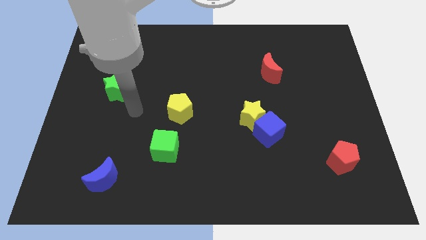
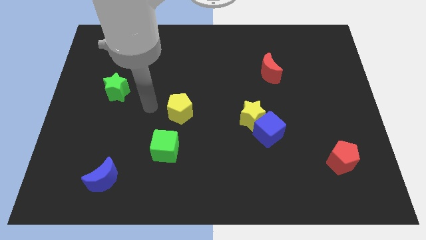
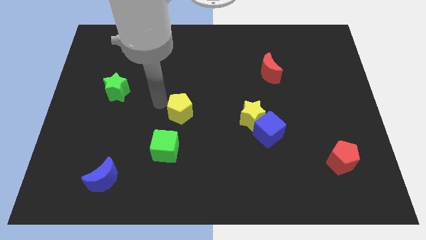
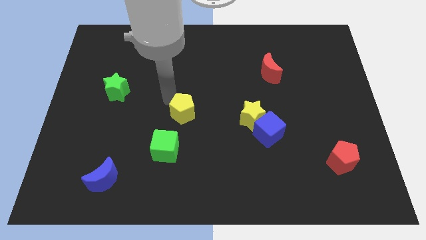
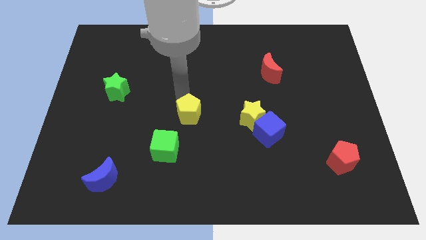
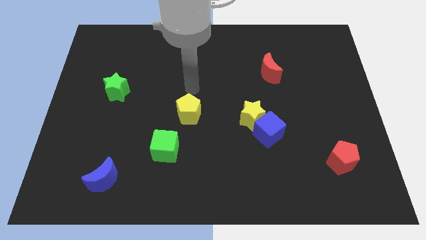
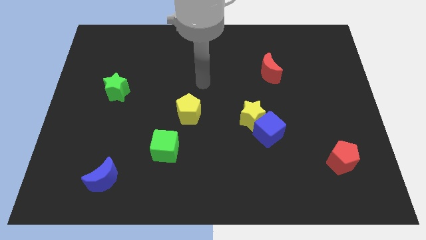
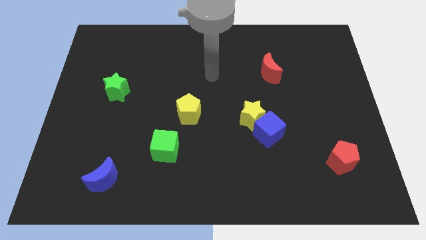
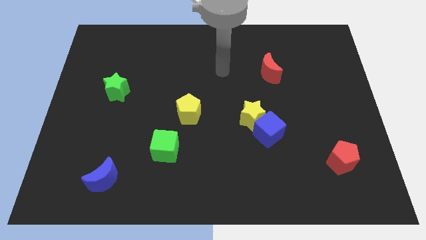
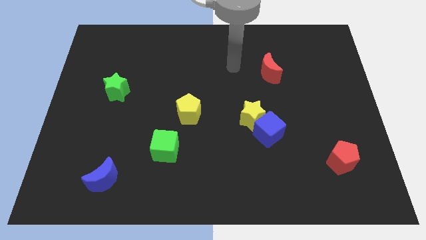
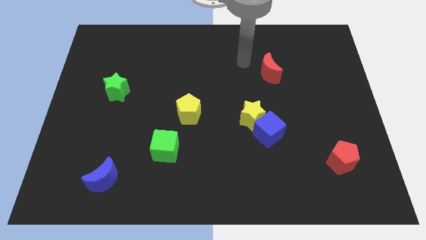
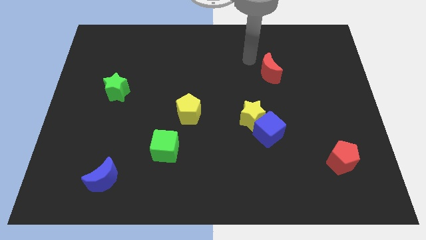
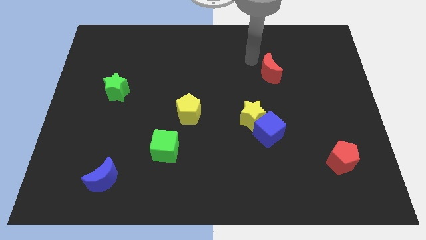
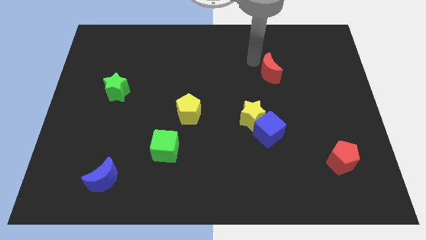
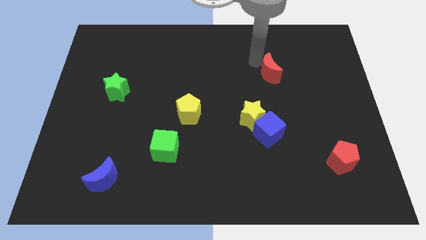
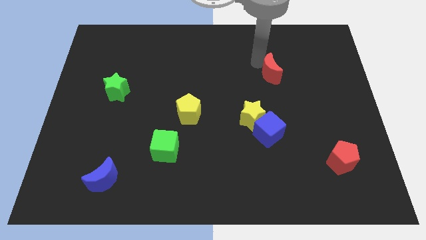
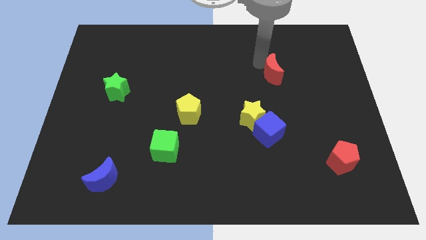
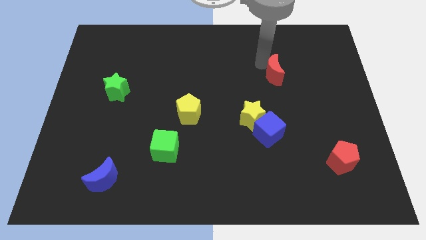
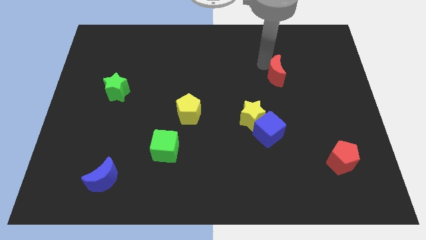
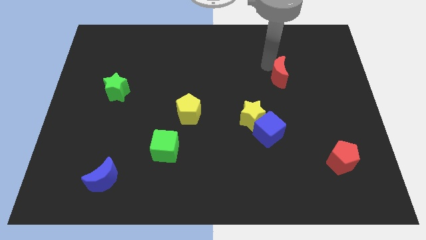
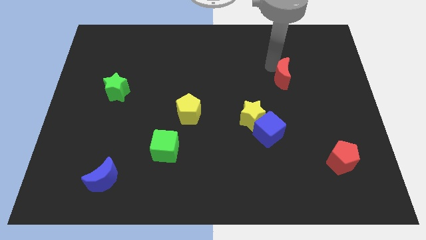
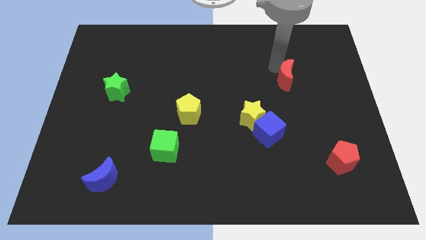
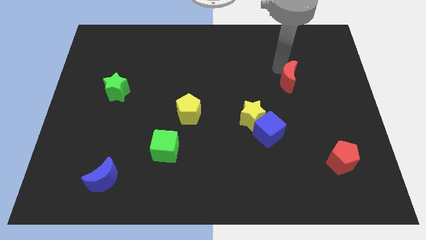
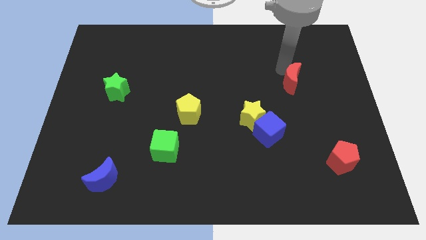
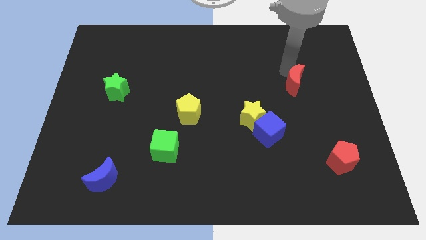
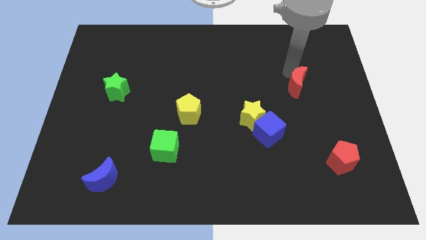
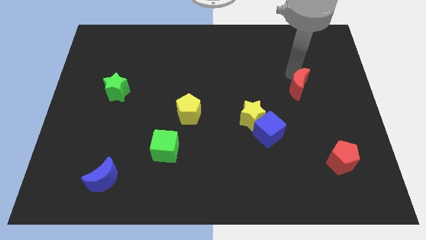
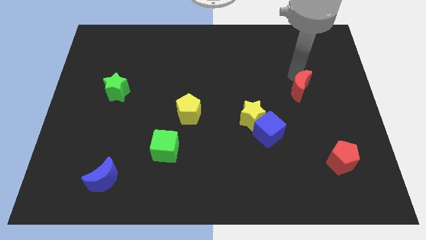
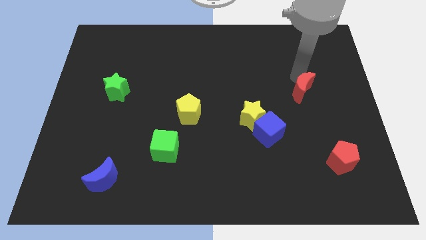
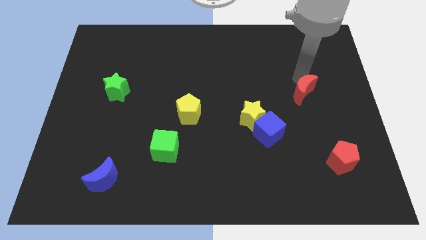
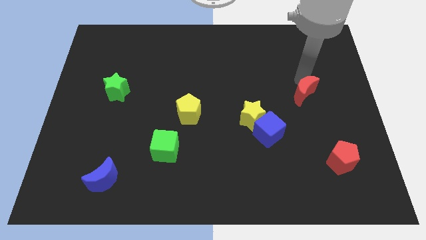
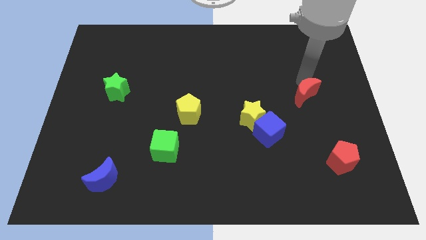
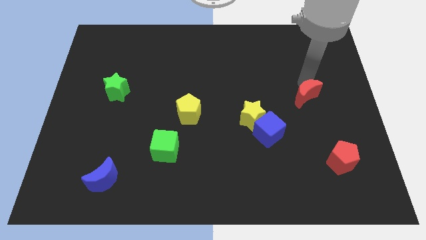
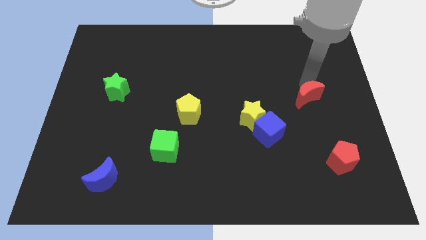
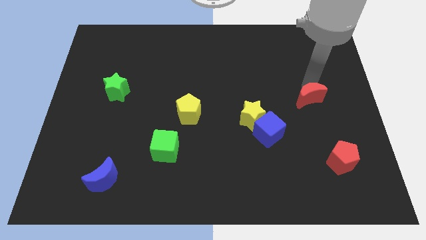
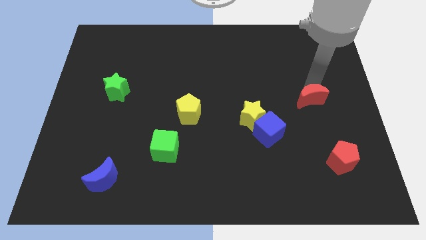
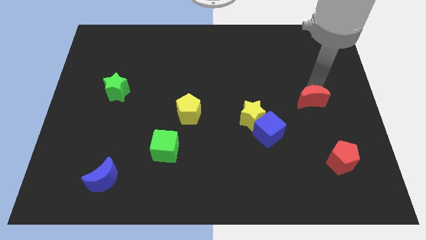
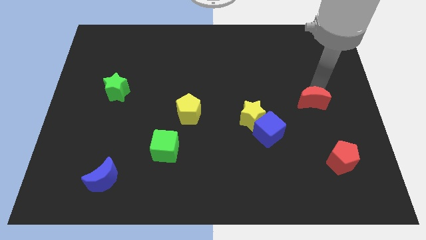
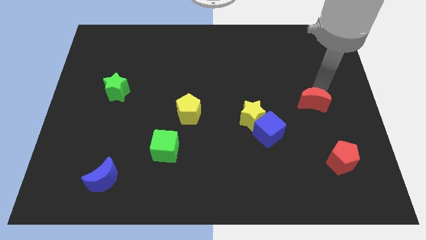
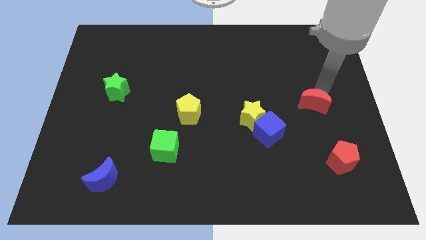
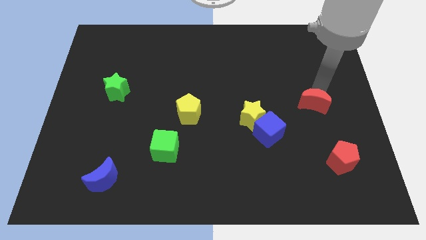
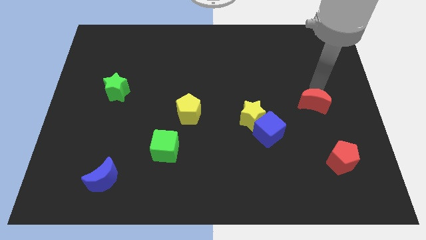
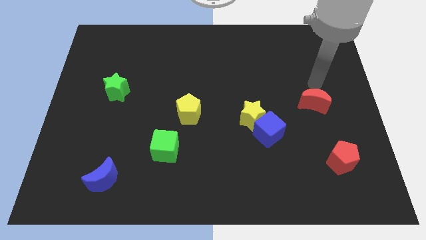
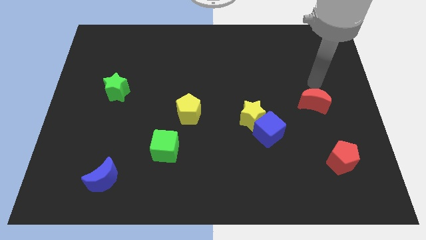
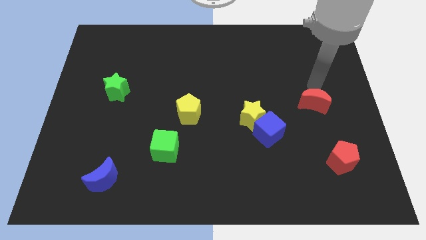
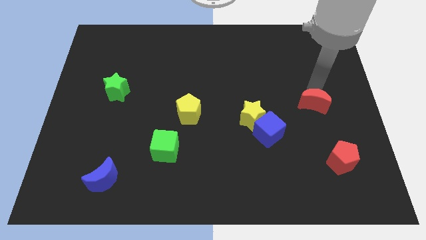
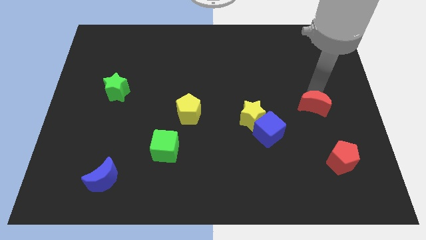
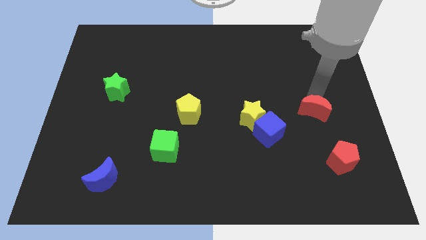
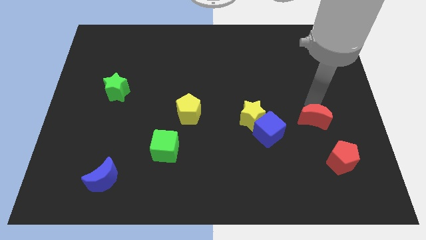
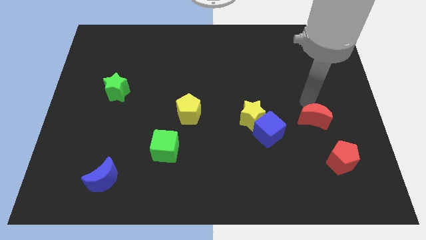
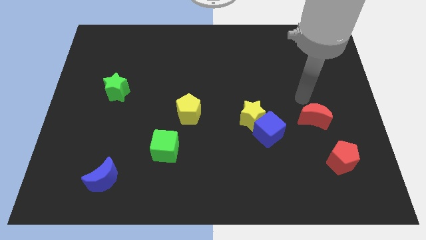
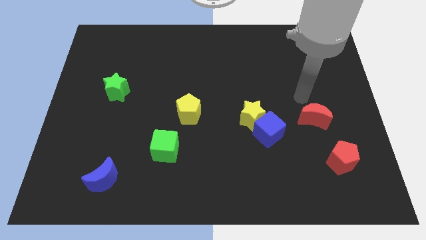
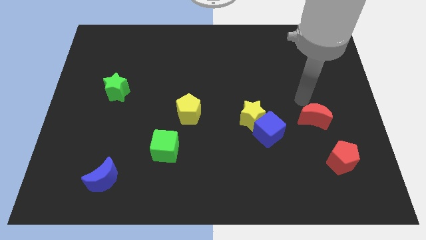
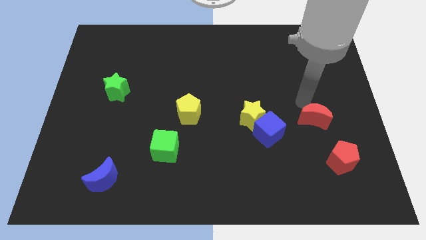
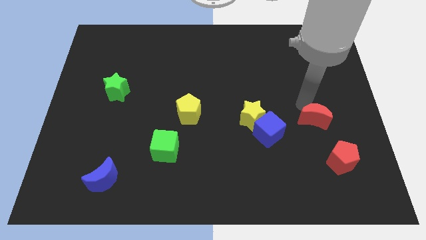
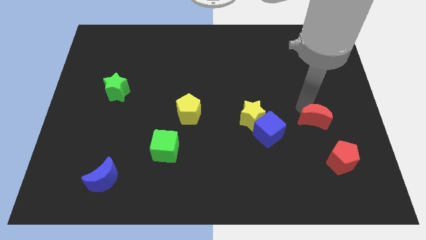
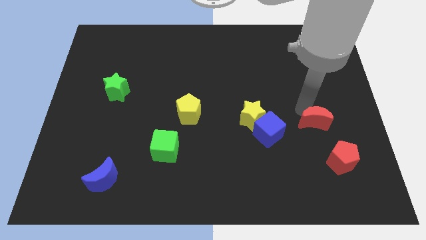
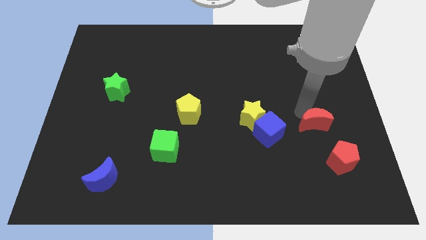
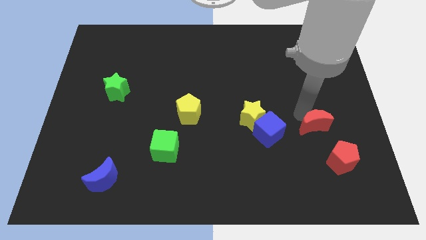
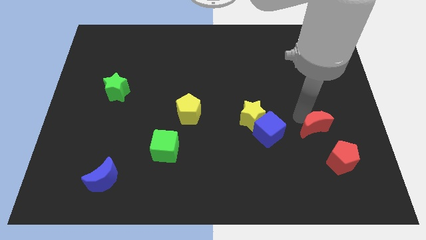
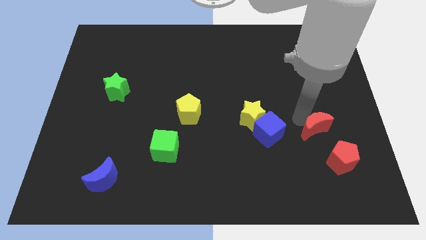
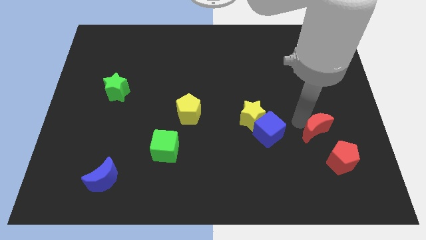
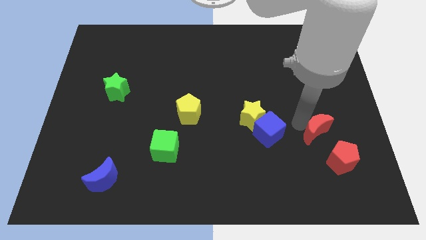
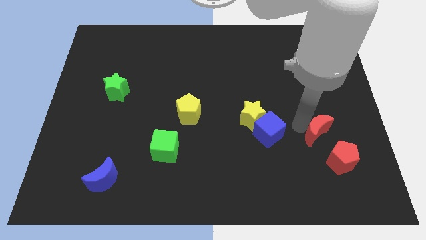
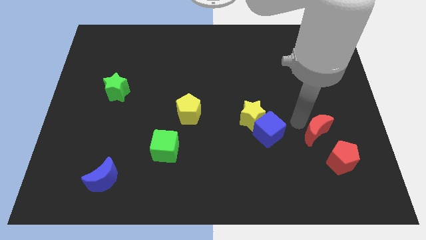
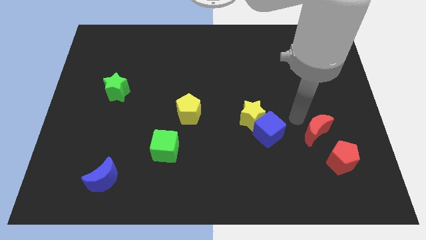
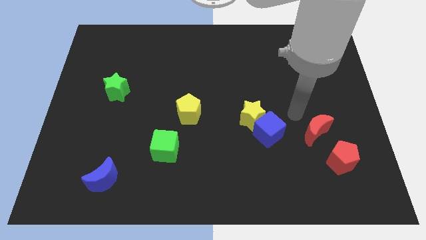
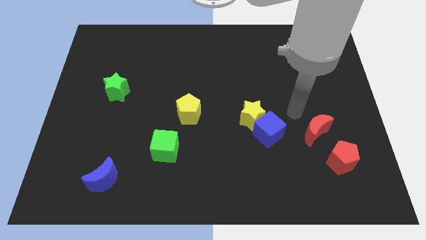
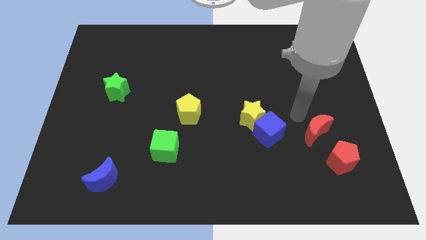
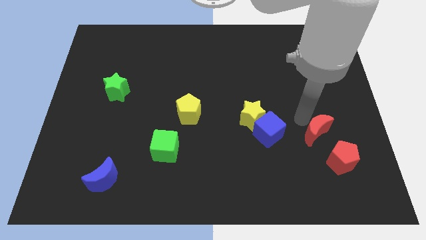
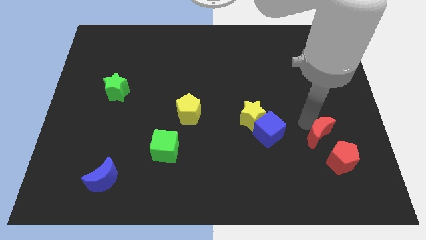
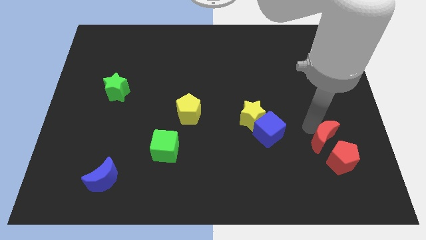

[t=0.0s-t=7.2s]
move the red moon close to the red pentagon

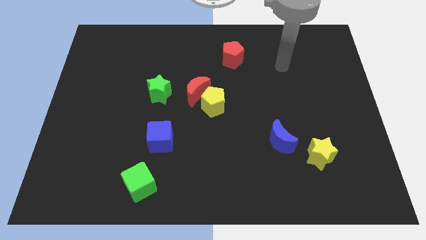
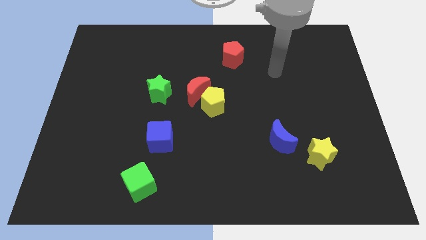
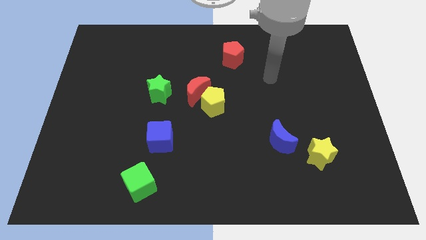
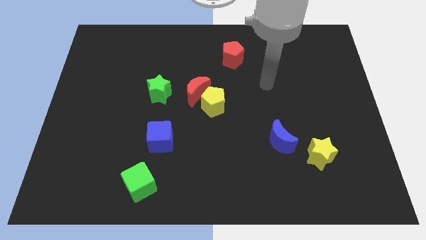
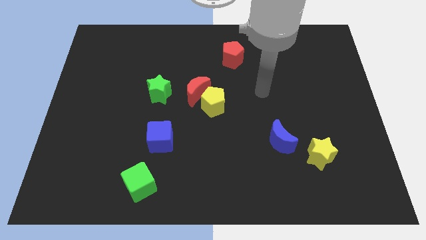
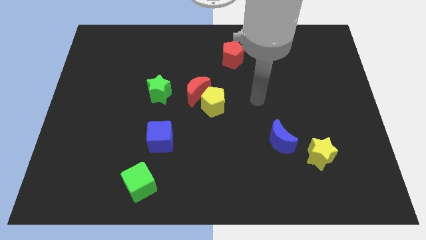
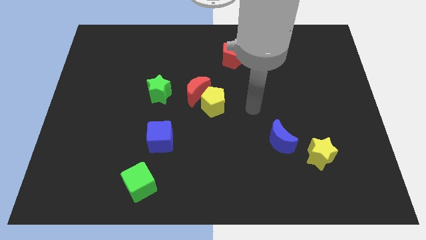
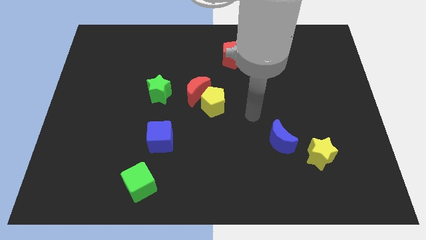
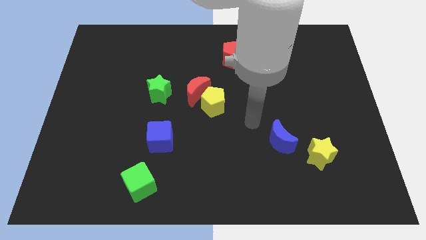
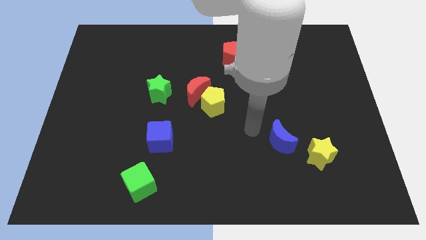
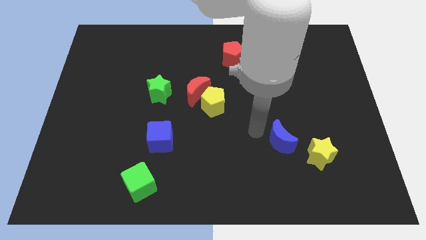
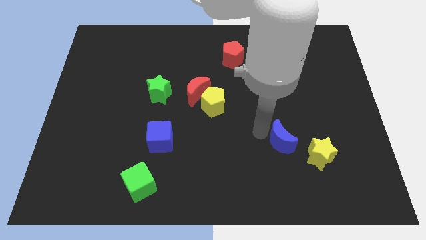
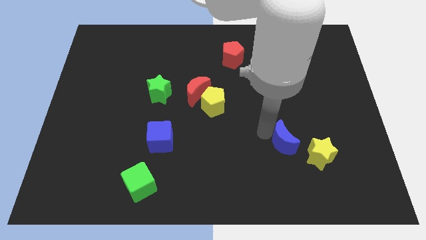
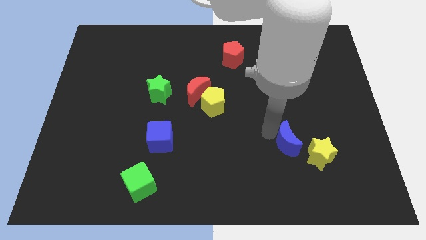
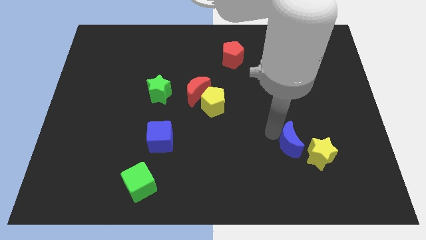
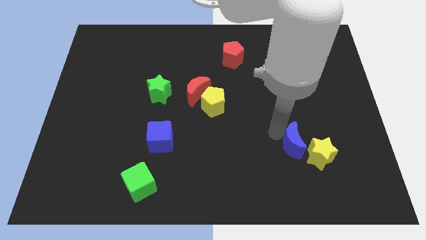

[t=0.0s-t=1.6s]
put the blue moon towards the yellow star
